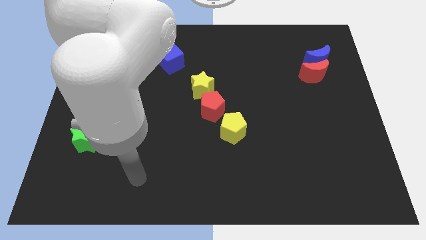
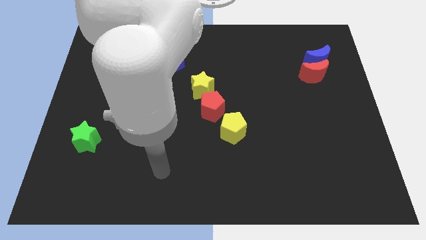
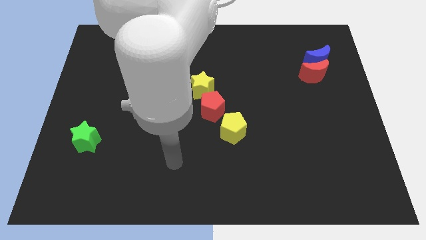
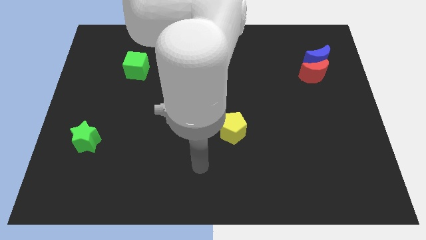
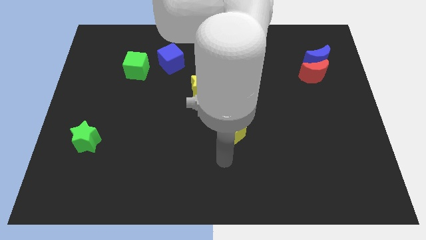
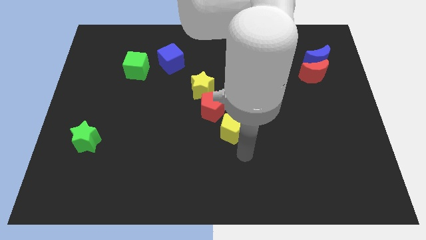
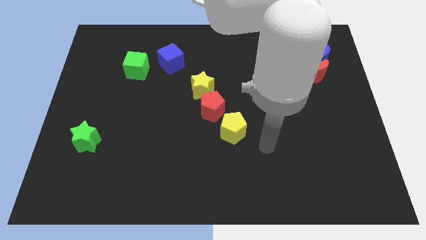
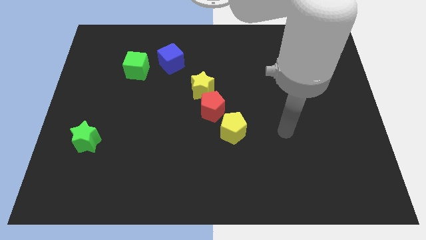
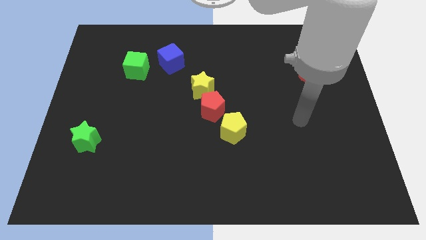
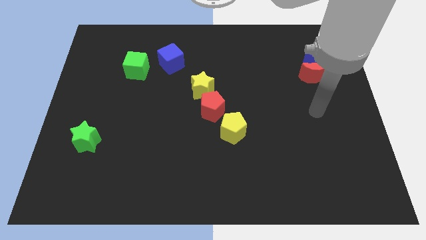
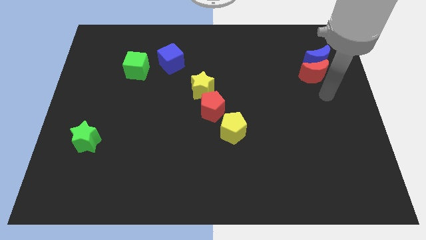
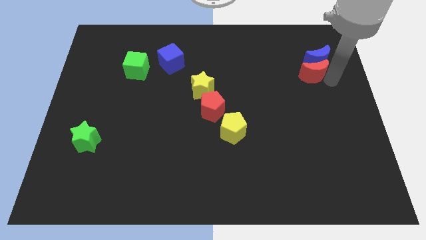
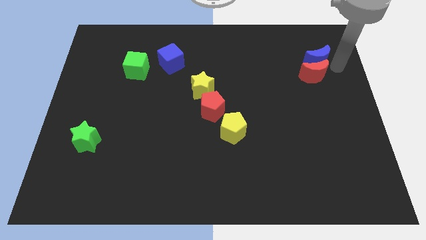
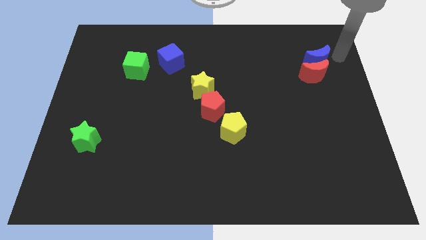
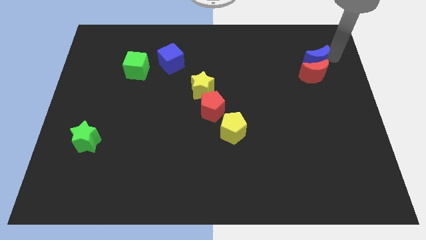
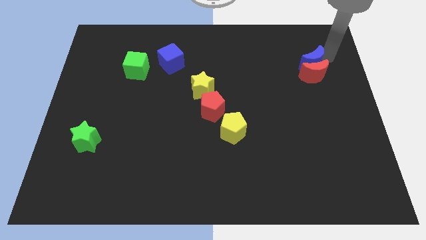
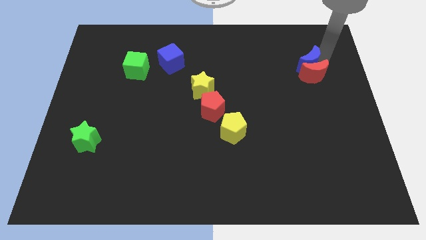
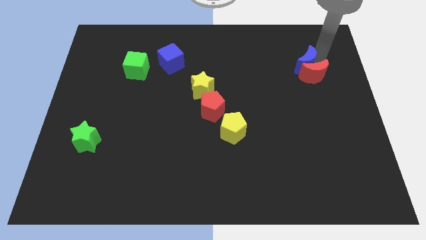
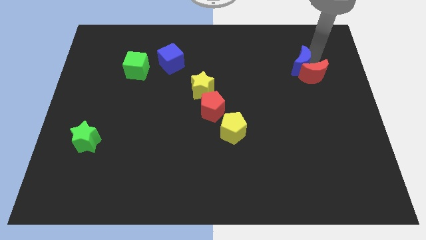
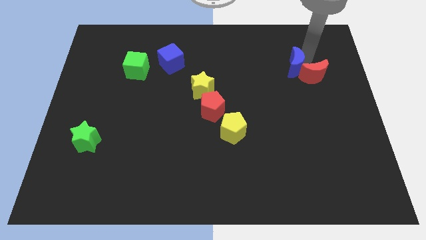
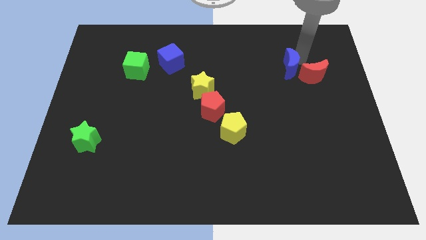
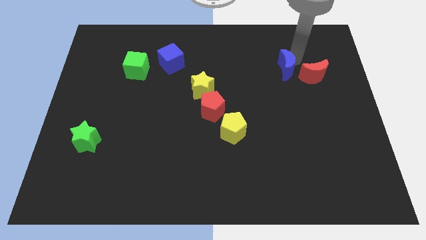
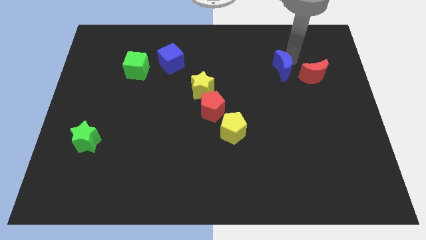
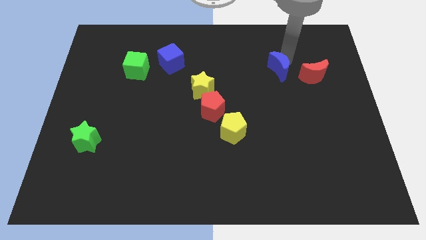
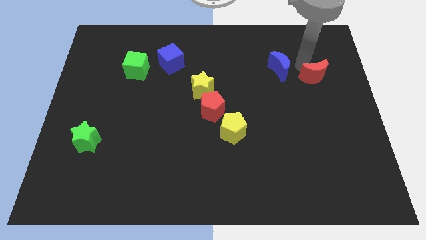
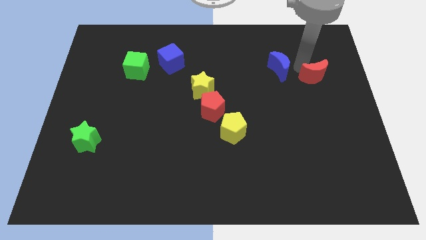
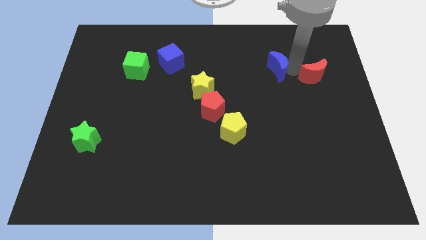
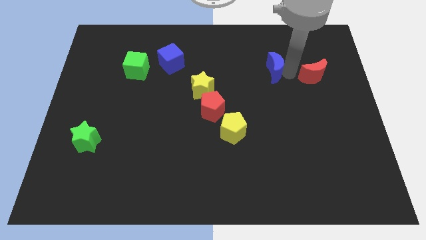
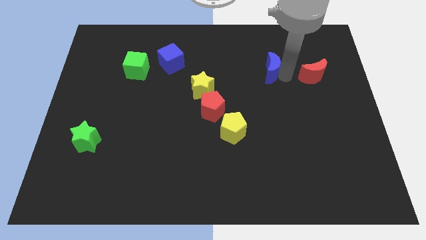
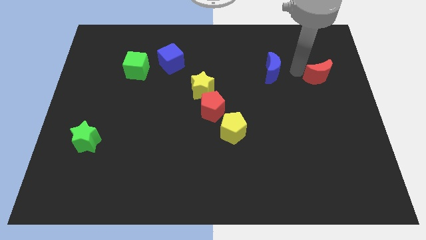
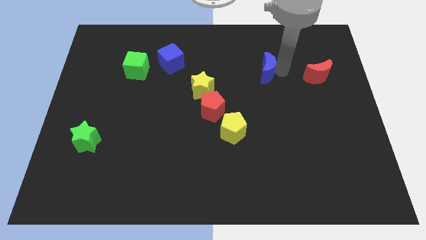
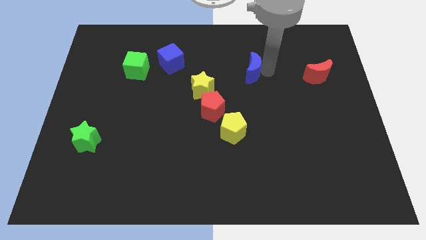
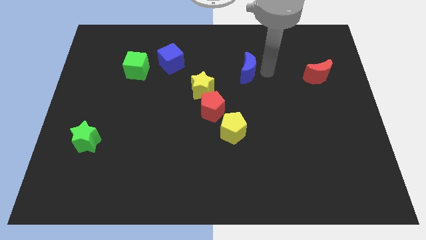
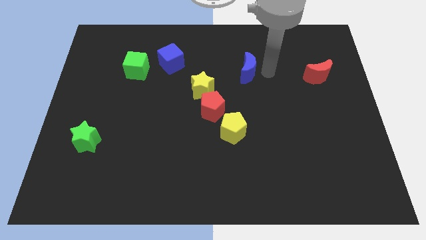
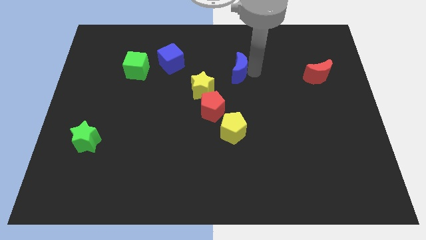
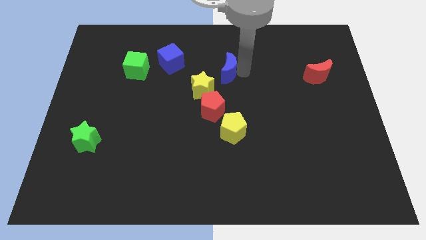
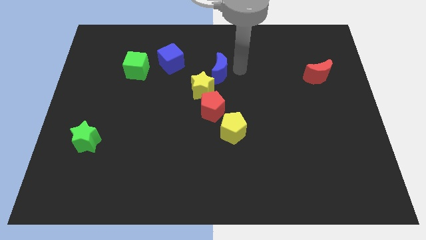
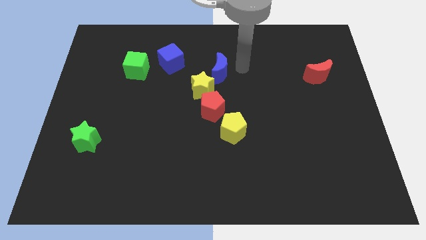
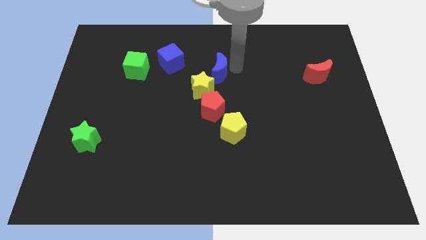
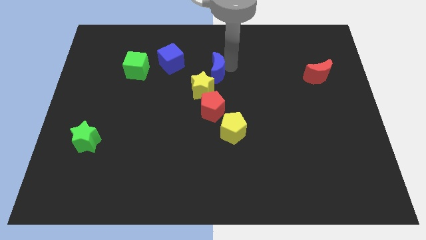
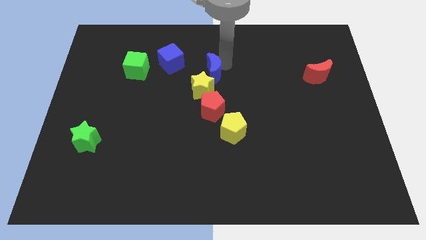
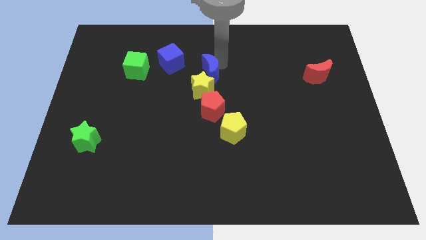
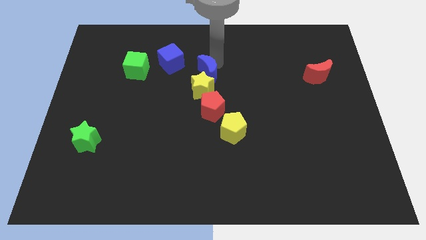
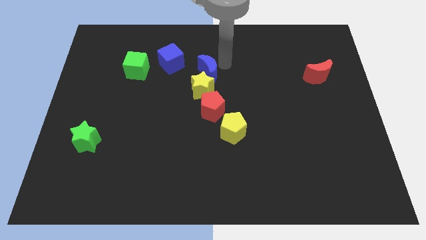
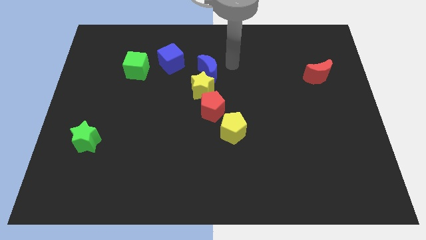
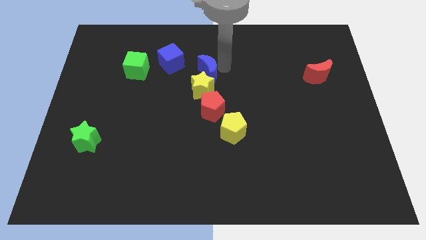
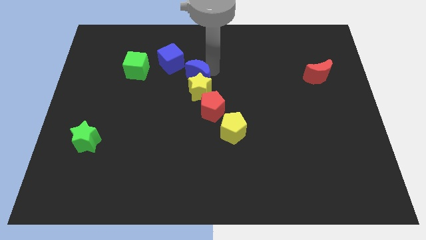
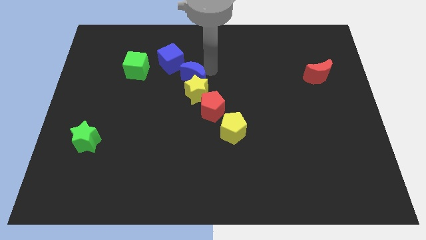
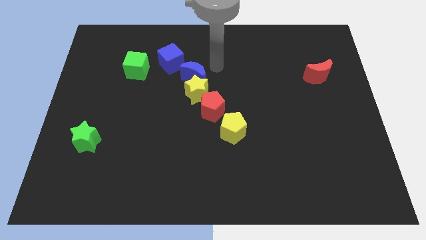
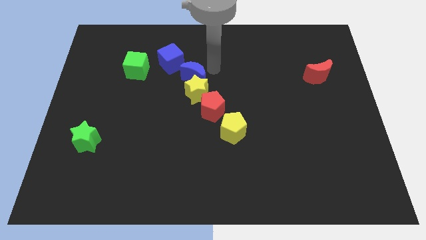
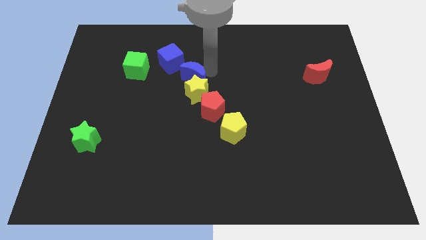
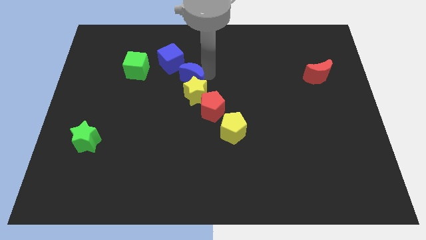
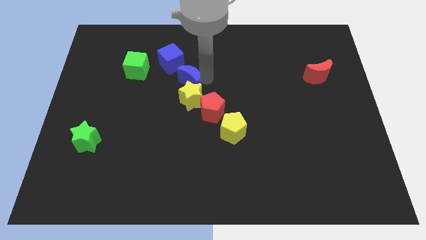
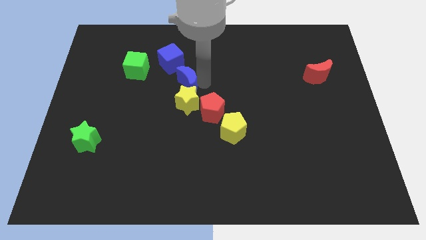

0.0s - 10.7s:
slide the blue moon to the bottom side of the blue cube

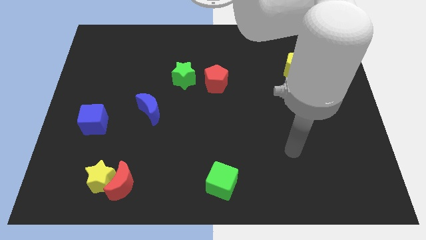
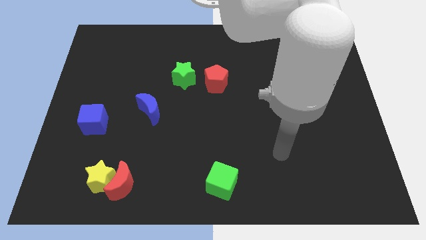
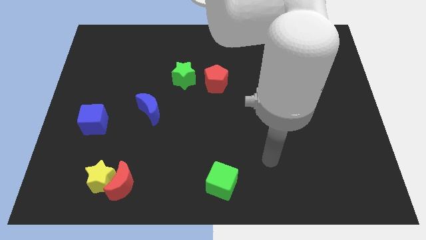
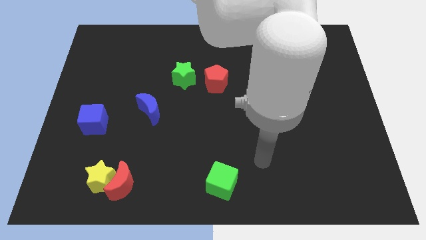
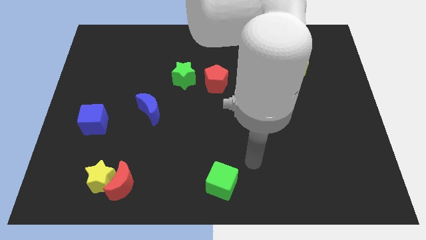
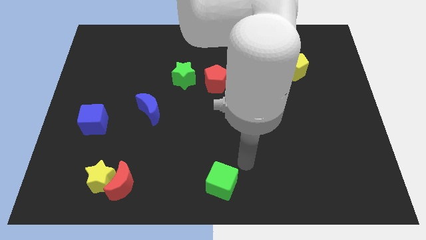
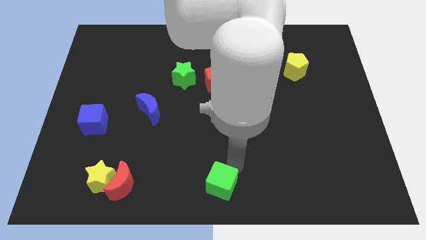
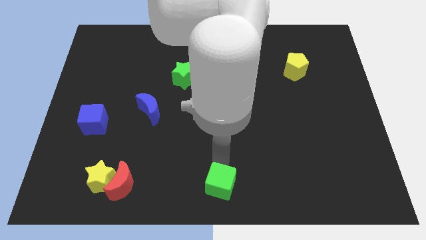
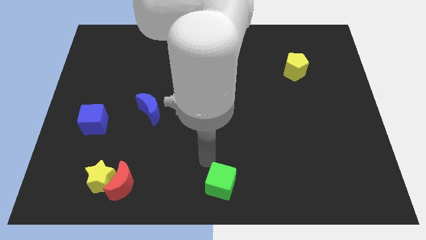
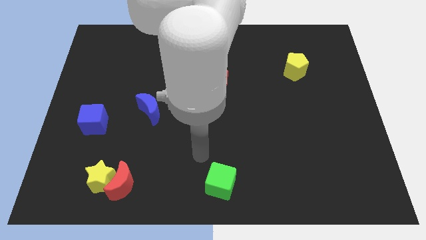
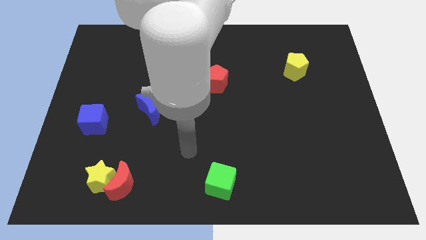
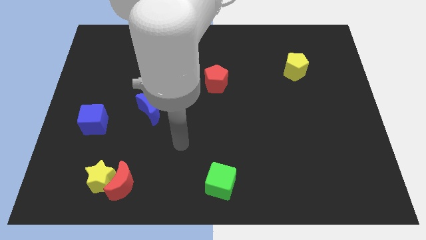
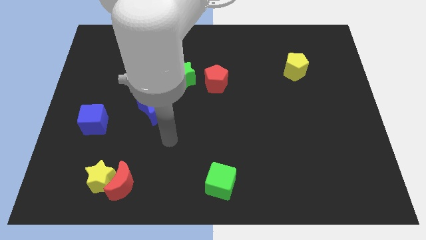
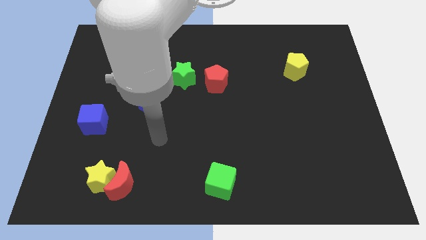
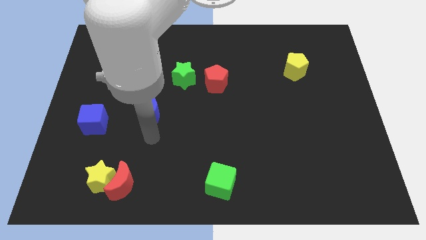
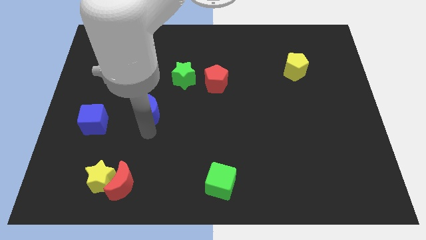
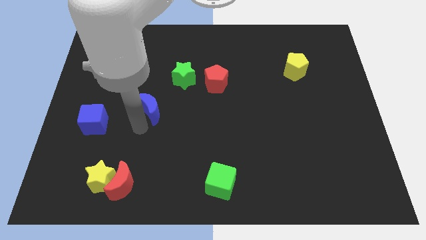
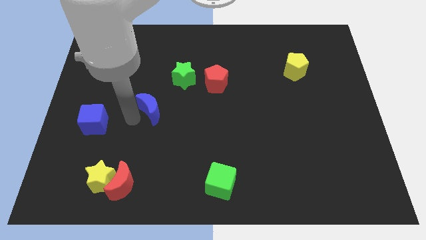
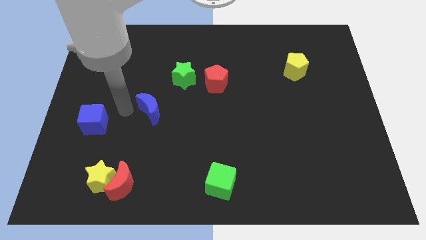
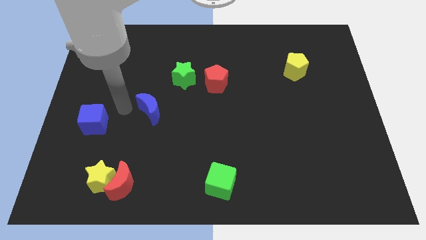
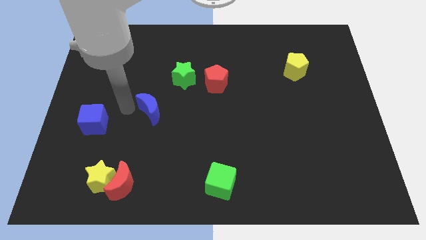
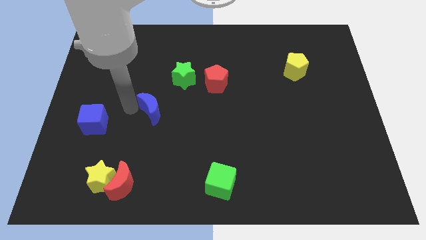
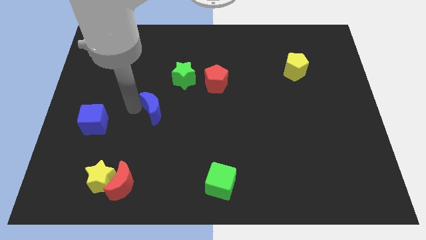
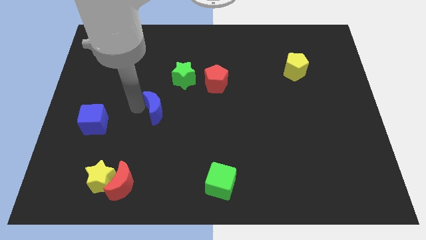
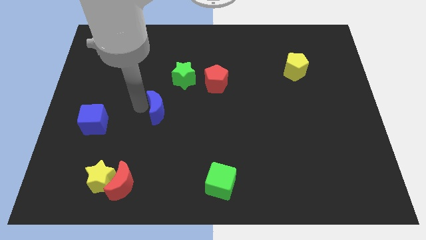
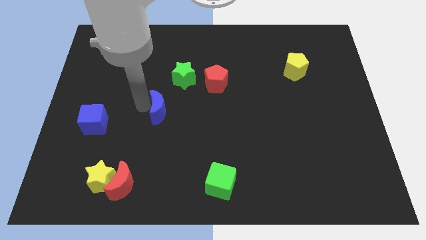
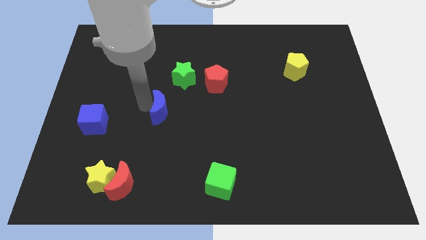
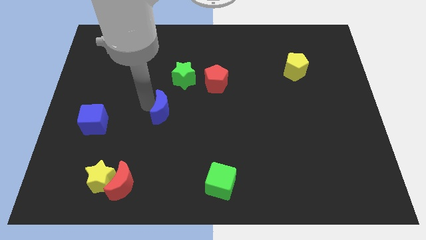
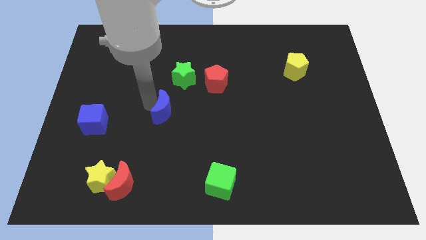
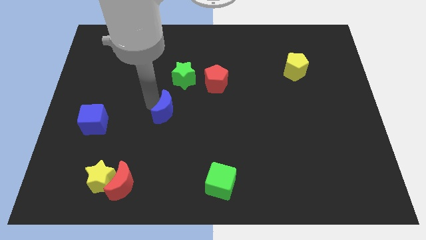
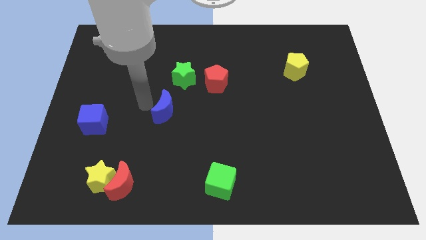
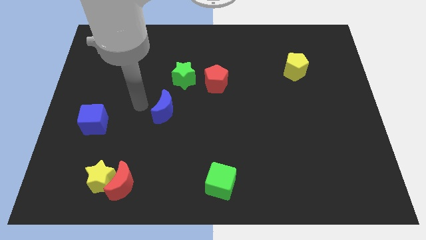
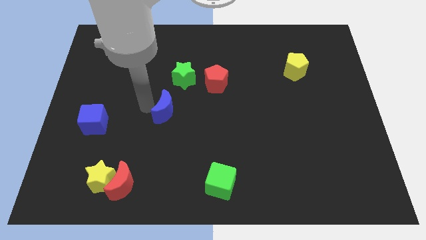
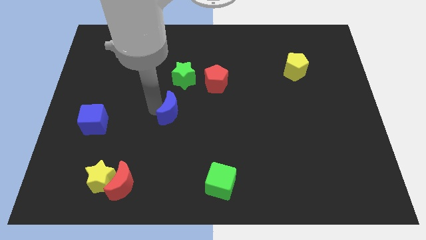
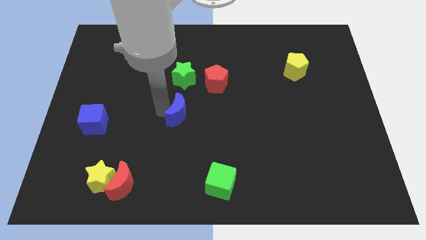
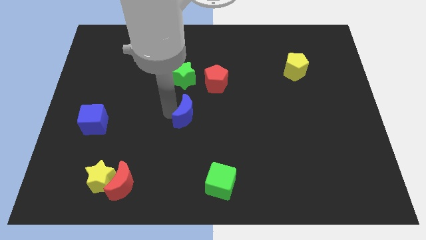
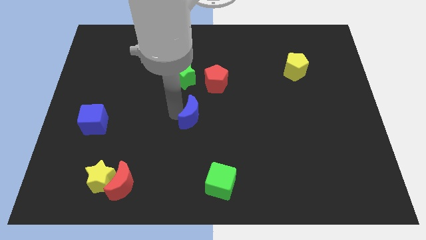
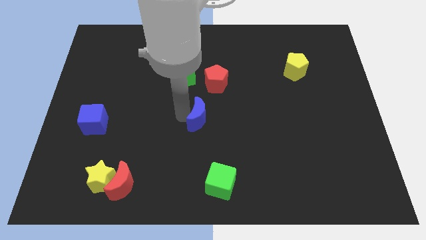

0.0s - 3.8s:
slide the blue moon to the bottom of the red pentagon
